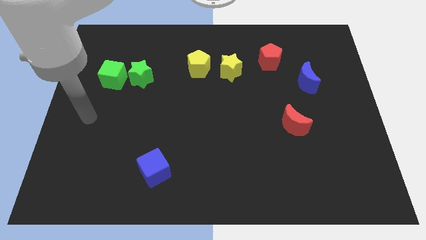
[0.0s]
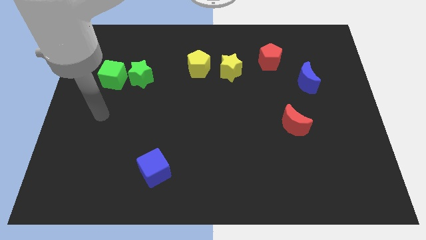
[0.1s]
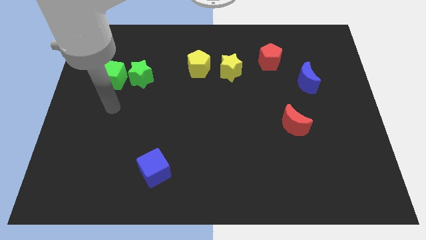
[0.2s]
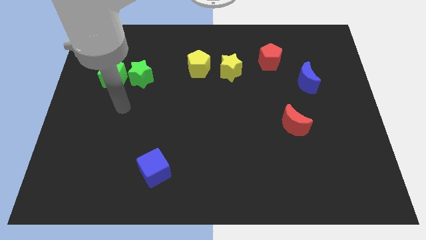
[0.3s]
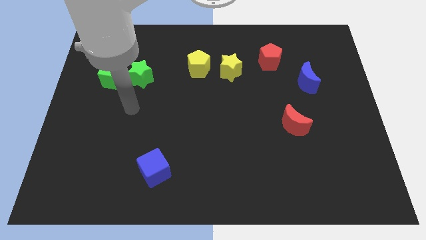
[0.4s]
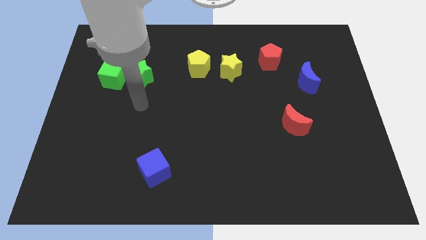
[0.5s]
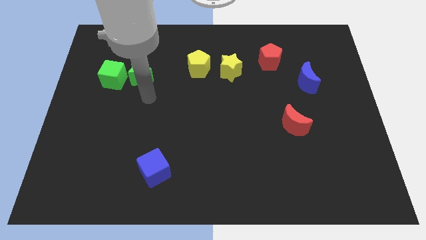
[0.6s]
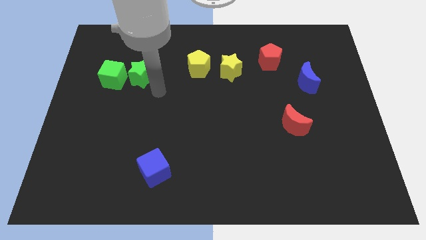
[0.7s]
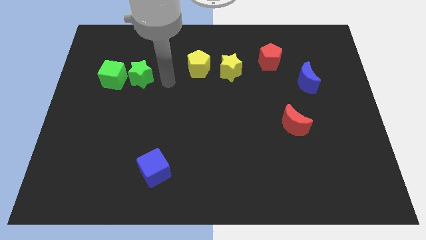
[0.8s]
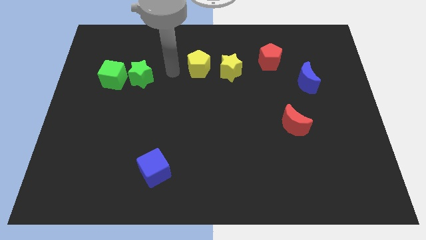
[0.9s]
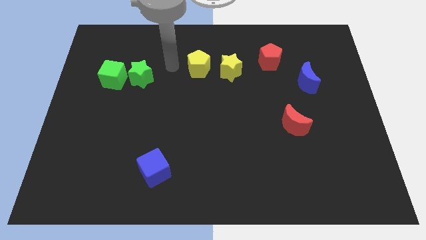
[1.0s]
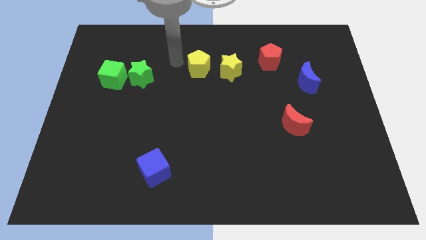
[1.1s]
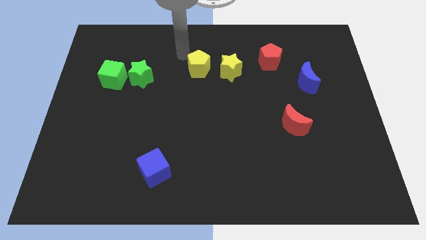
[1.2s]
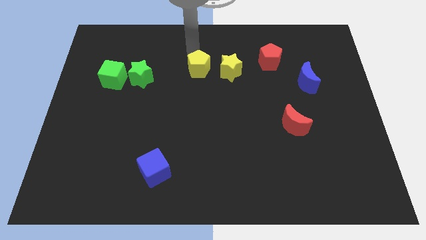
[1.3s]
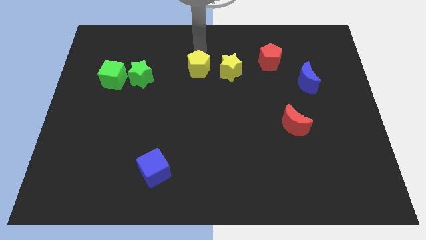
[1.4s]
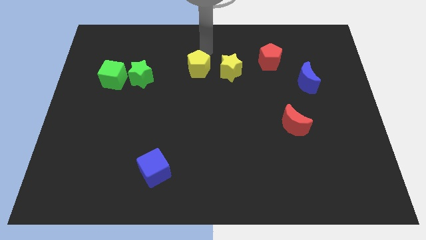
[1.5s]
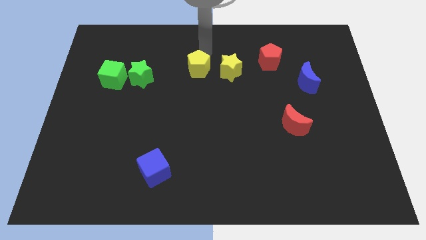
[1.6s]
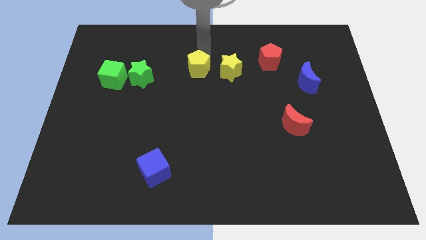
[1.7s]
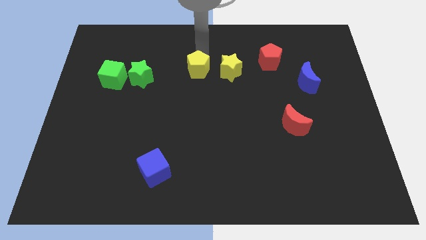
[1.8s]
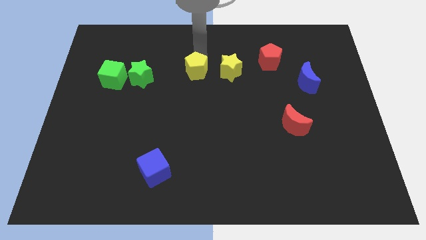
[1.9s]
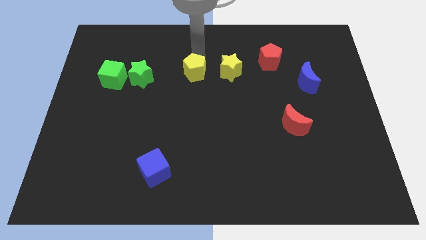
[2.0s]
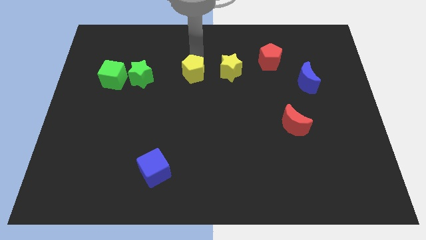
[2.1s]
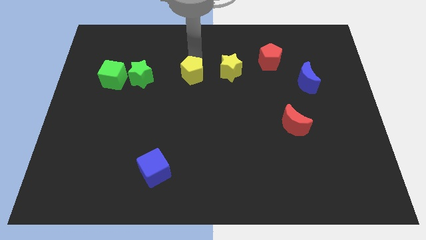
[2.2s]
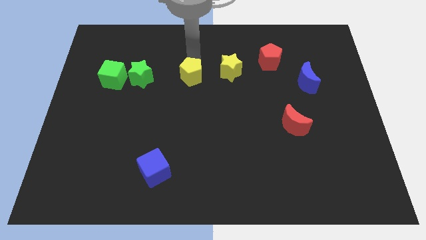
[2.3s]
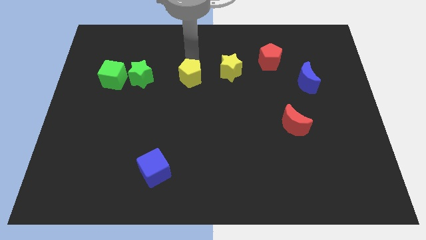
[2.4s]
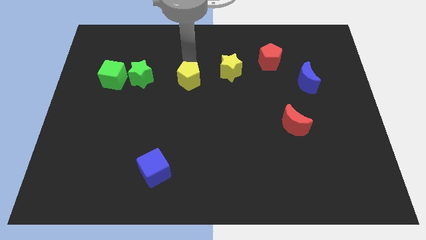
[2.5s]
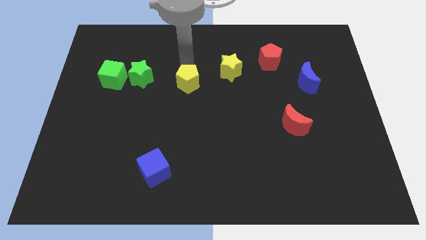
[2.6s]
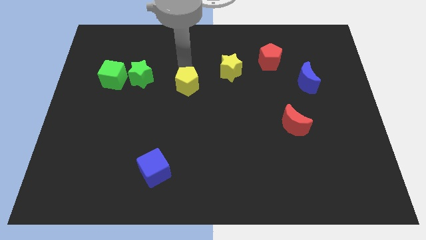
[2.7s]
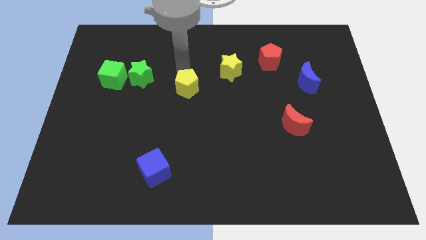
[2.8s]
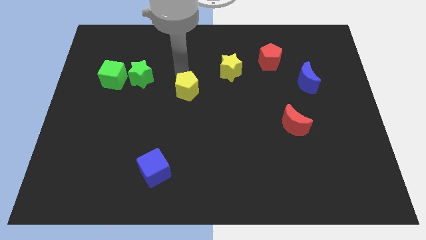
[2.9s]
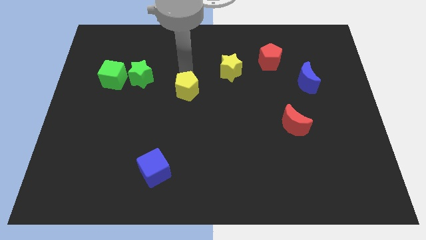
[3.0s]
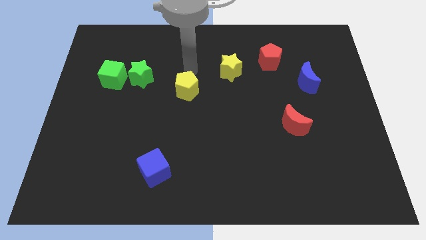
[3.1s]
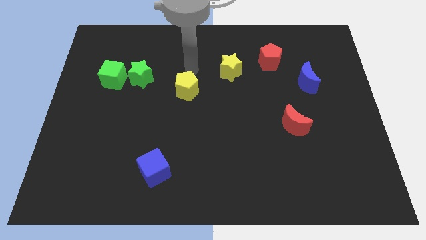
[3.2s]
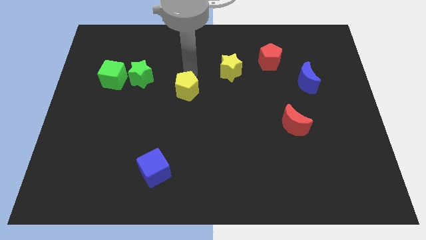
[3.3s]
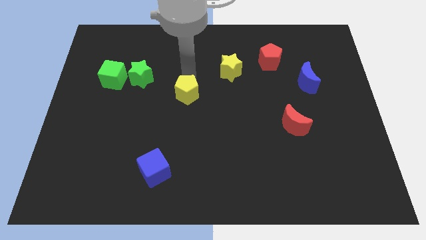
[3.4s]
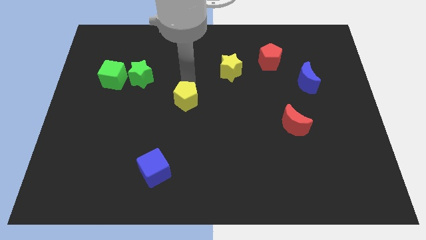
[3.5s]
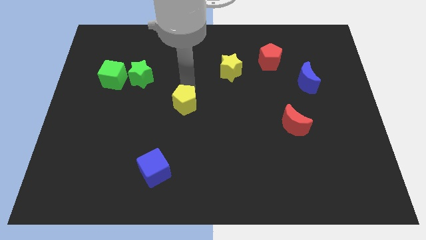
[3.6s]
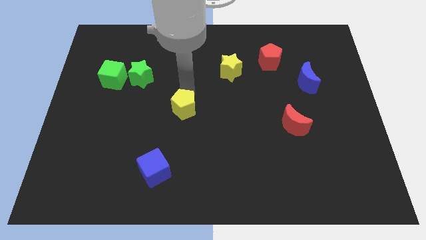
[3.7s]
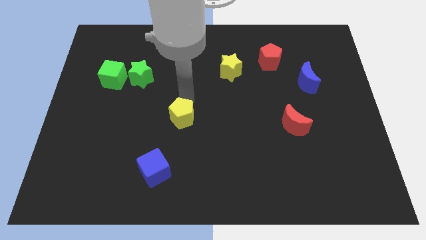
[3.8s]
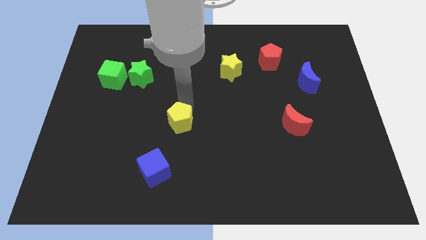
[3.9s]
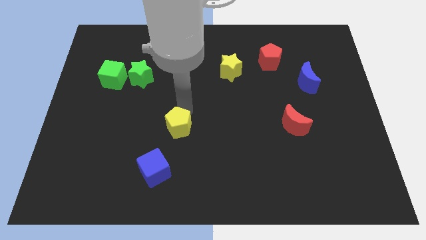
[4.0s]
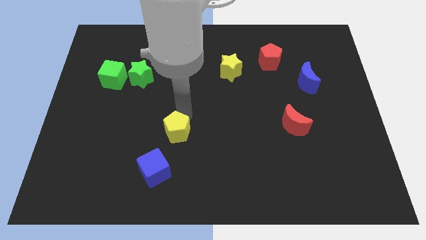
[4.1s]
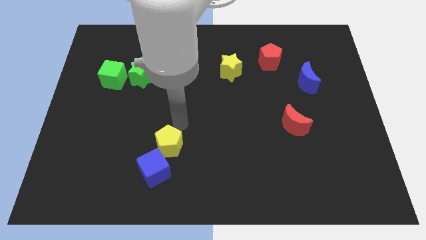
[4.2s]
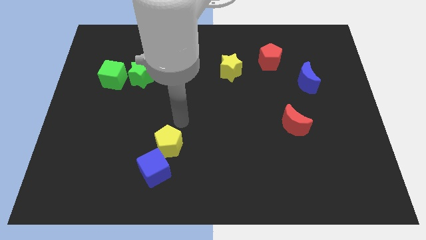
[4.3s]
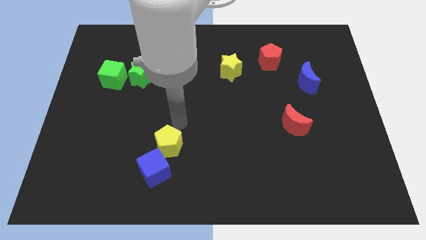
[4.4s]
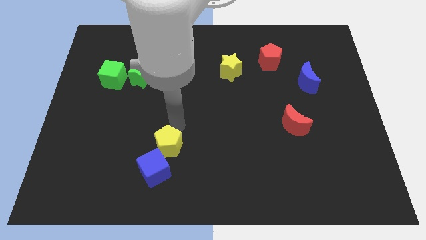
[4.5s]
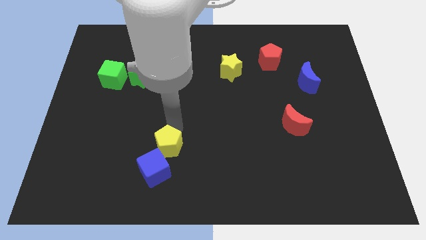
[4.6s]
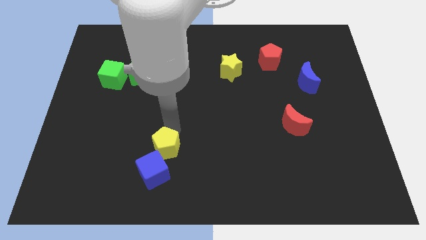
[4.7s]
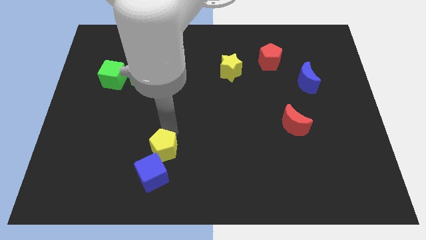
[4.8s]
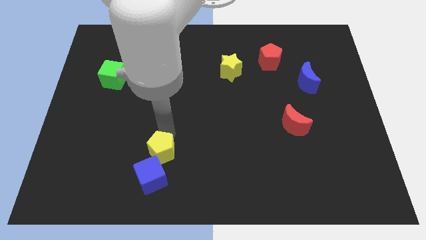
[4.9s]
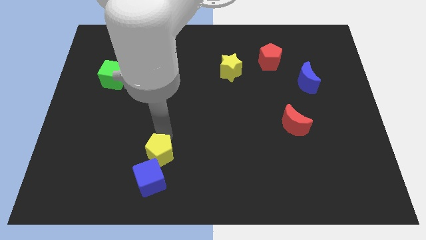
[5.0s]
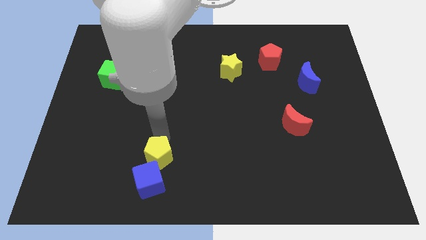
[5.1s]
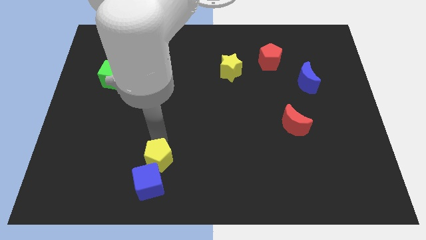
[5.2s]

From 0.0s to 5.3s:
slide the yellow pentagon next to the blue cube

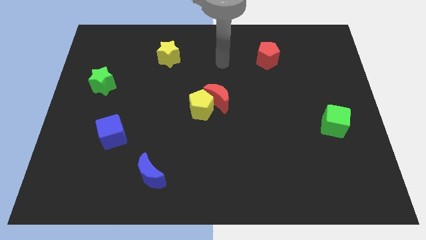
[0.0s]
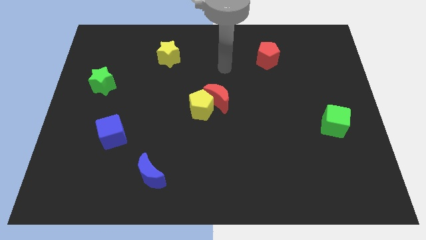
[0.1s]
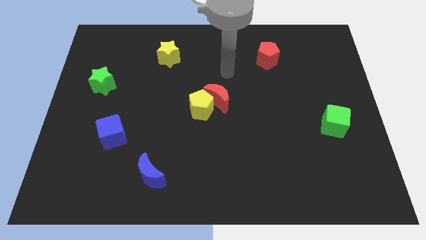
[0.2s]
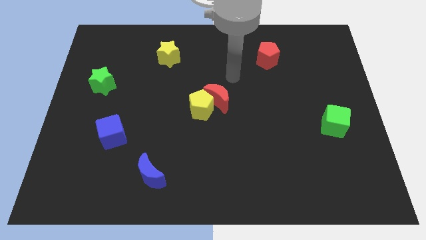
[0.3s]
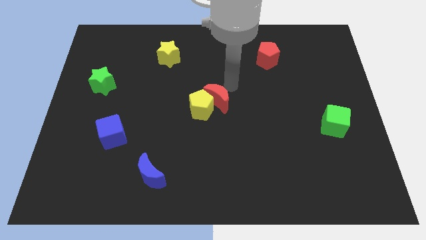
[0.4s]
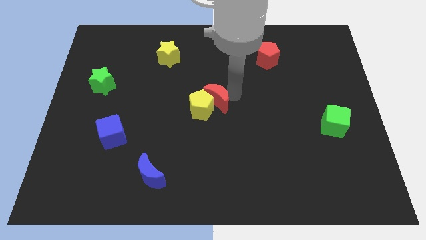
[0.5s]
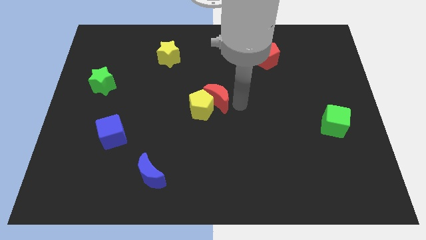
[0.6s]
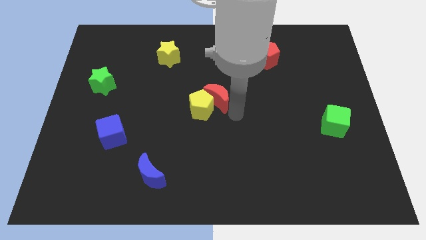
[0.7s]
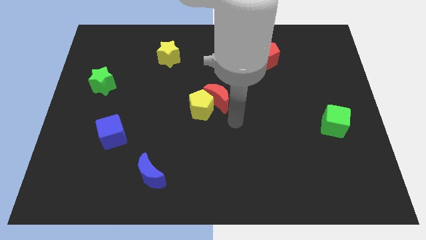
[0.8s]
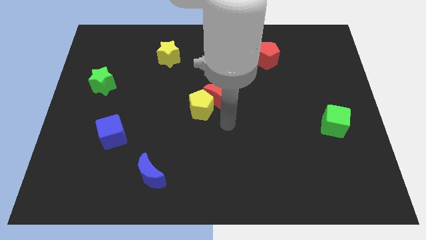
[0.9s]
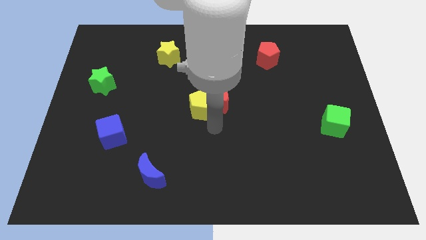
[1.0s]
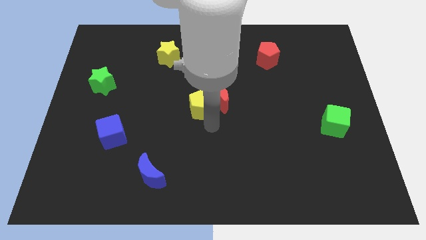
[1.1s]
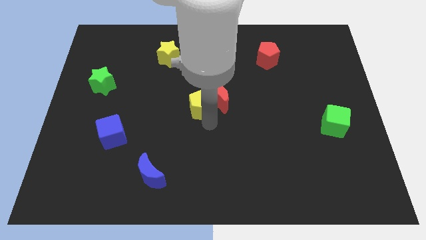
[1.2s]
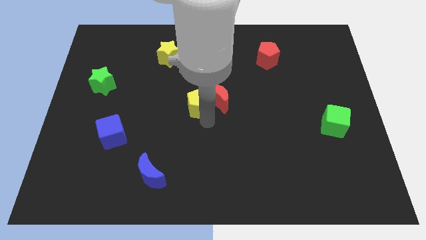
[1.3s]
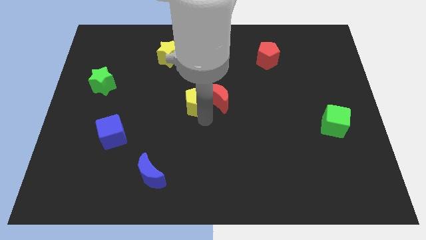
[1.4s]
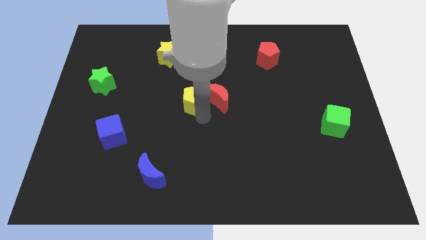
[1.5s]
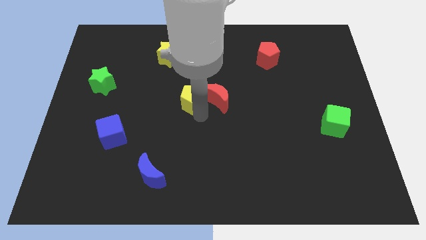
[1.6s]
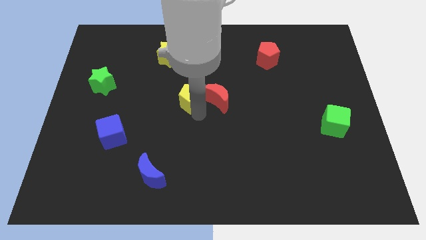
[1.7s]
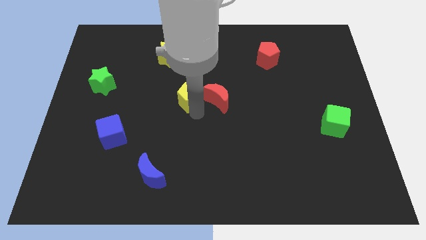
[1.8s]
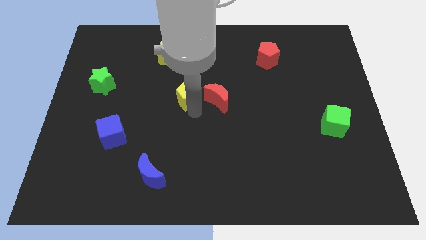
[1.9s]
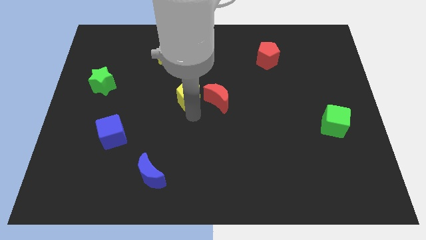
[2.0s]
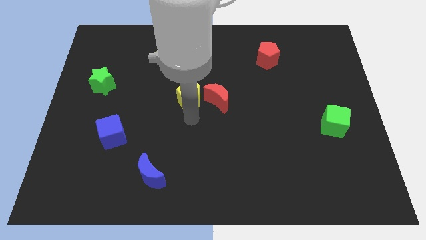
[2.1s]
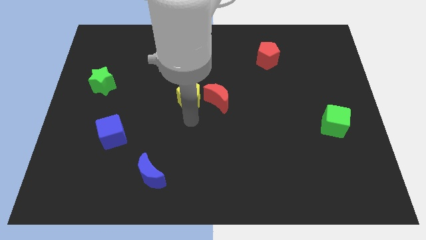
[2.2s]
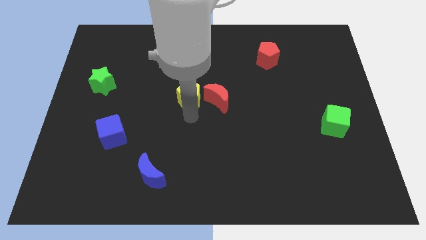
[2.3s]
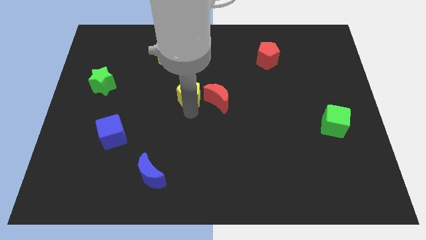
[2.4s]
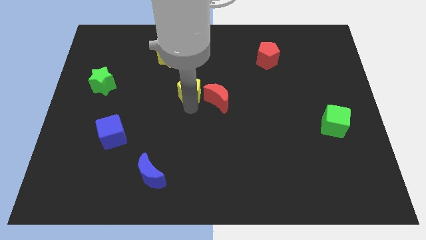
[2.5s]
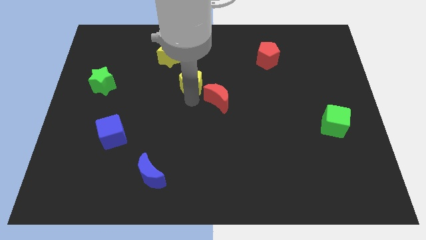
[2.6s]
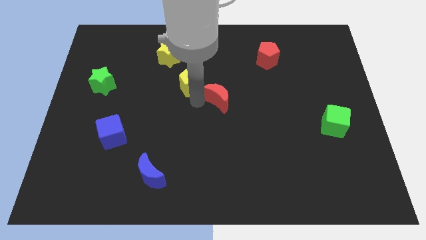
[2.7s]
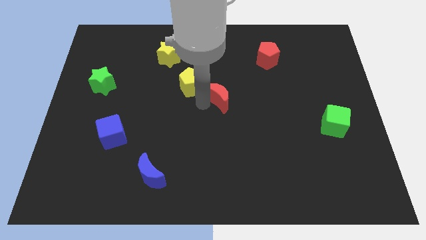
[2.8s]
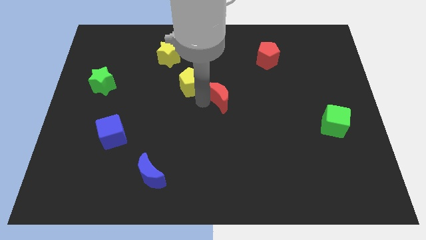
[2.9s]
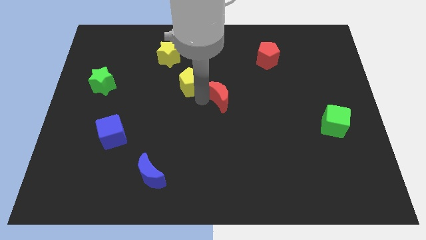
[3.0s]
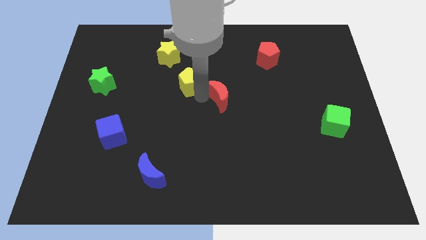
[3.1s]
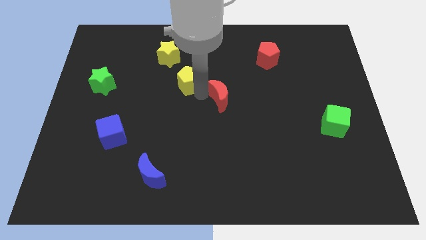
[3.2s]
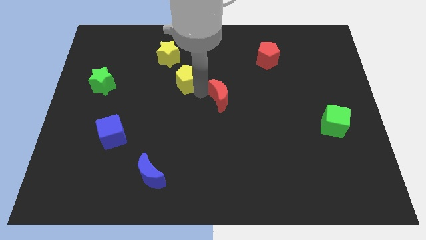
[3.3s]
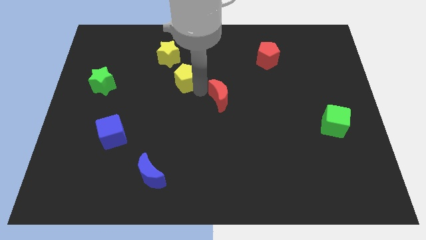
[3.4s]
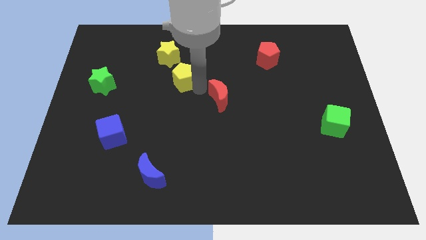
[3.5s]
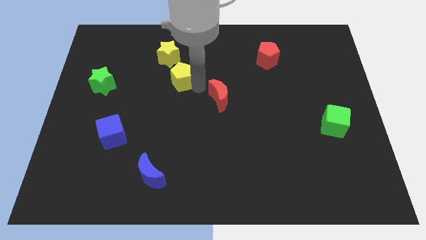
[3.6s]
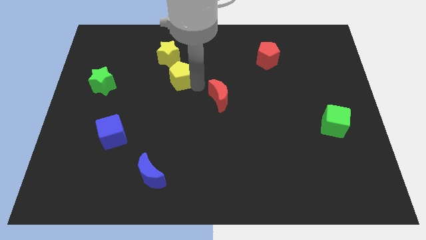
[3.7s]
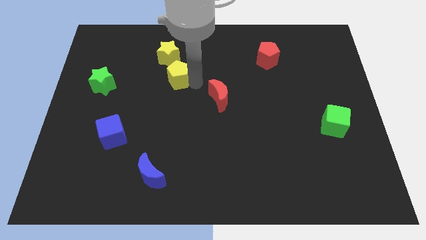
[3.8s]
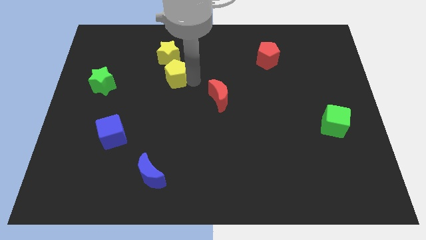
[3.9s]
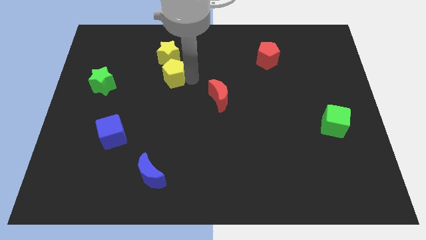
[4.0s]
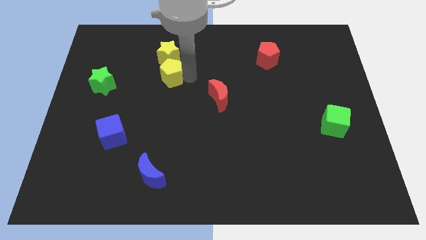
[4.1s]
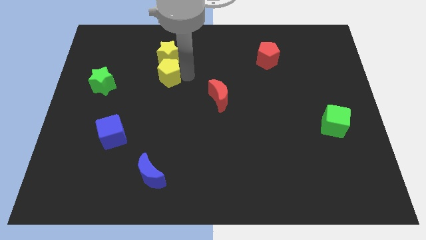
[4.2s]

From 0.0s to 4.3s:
push the yellow pentagon to the yellow star
